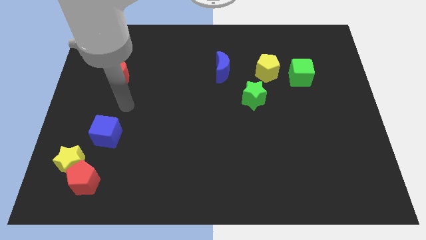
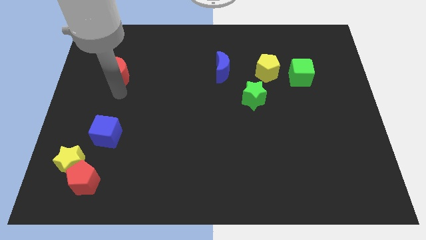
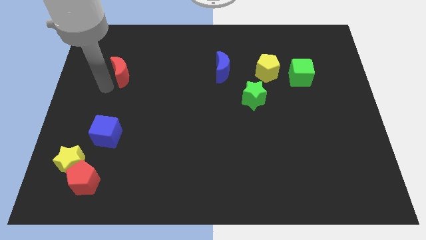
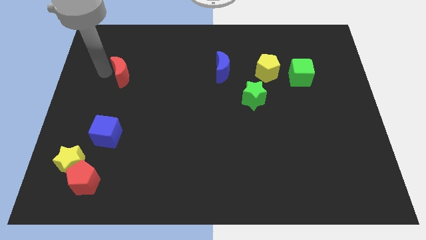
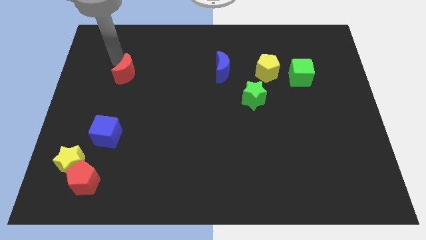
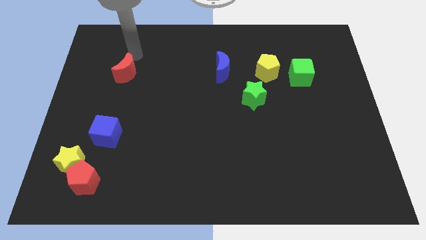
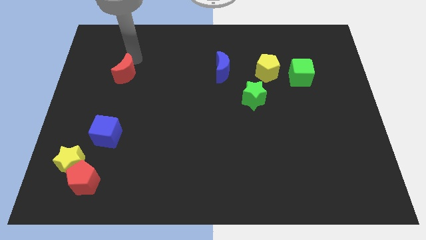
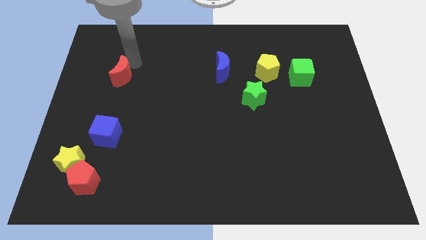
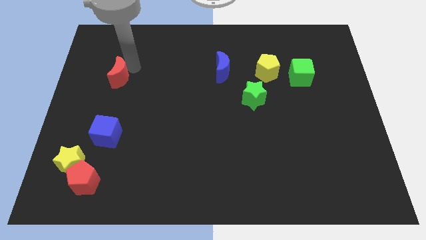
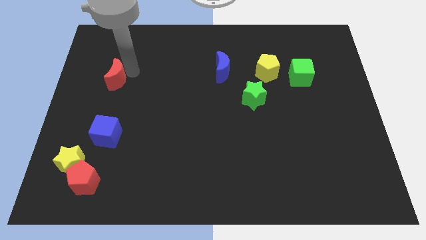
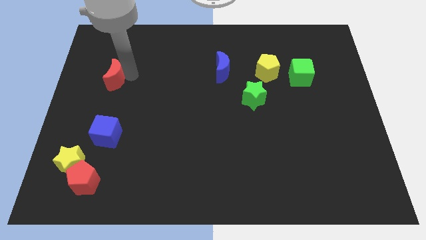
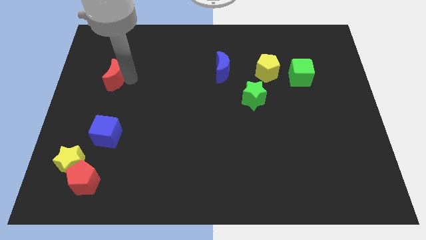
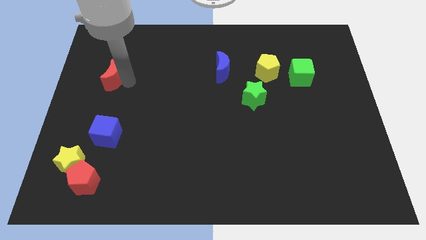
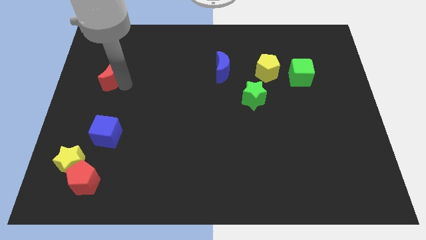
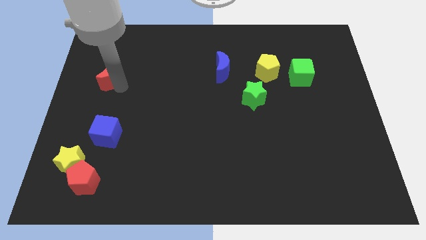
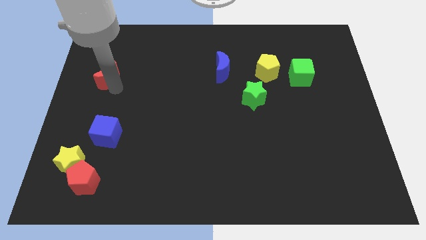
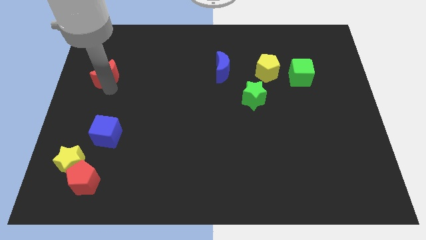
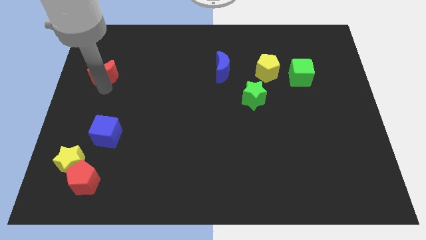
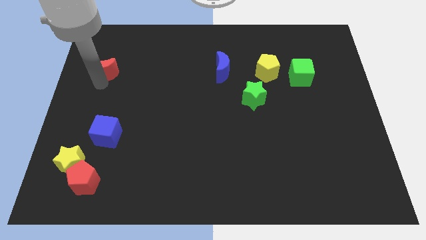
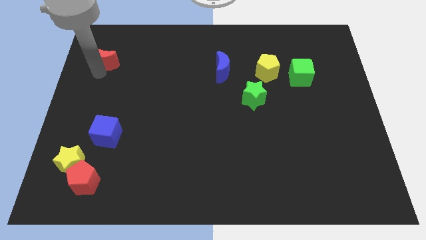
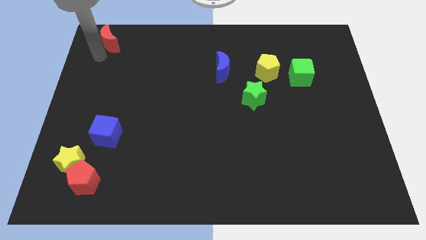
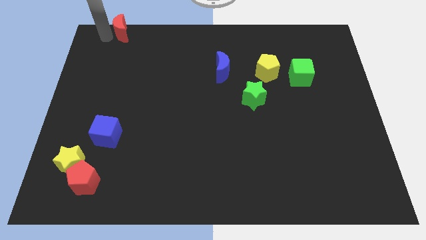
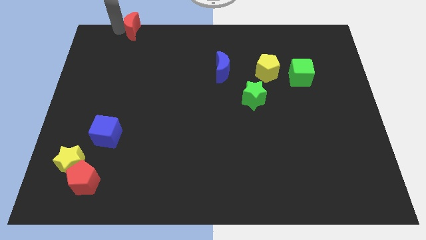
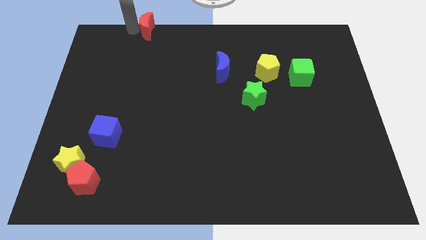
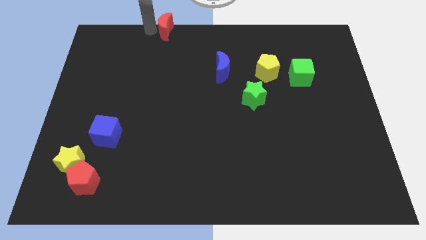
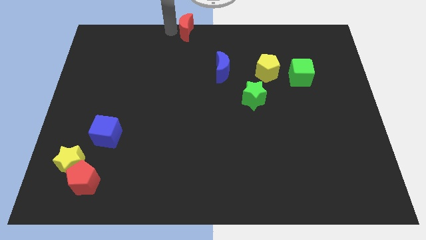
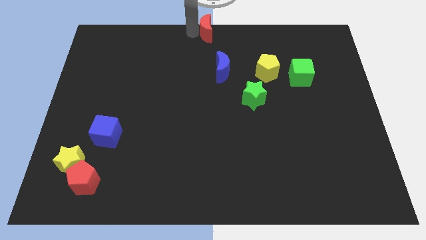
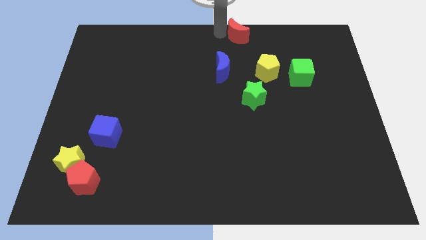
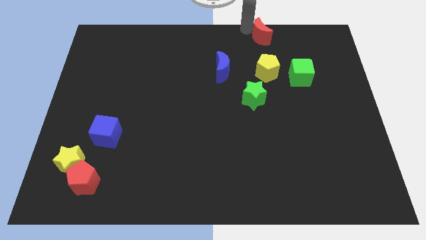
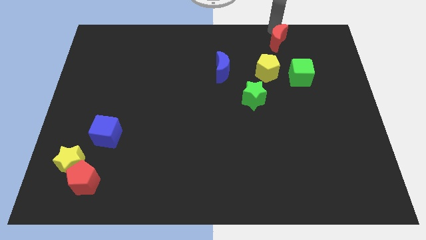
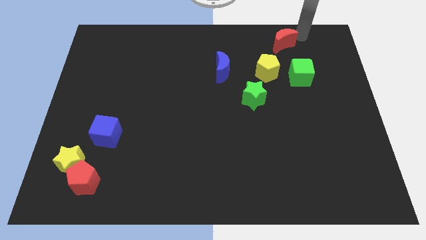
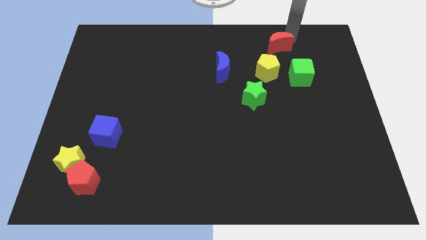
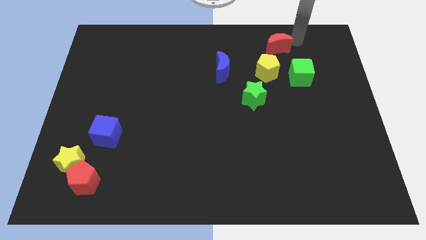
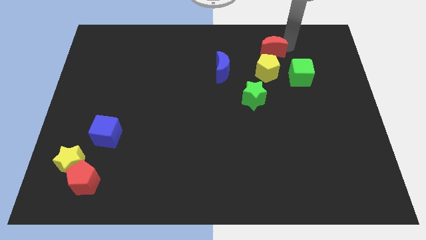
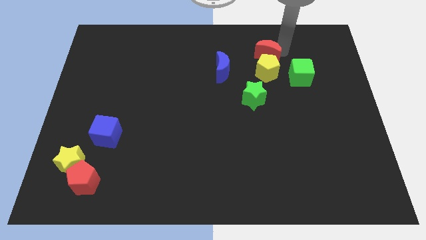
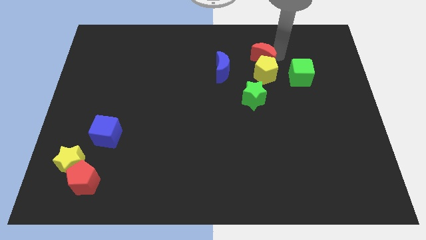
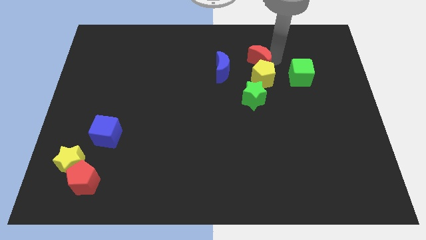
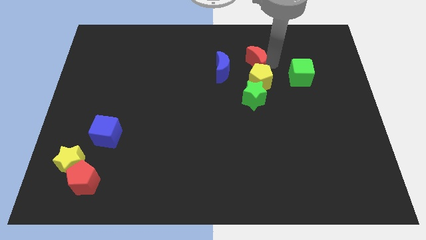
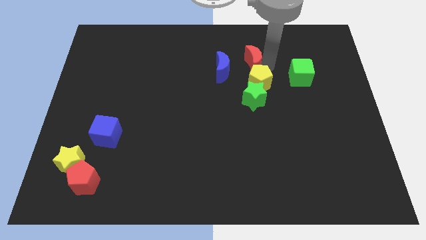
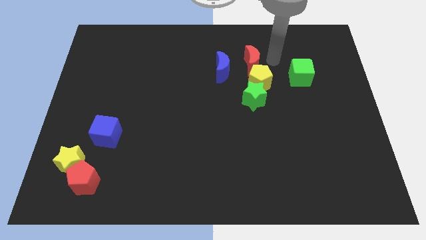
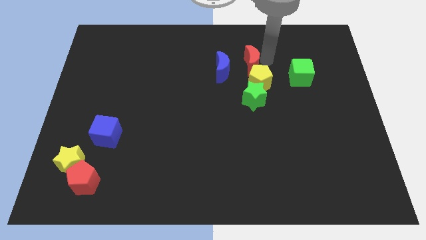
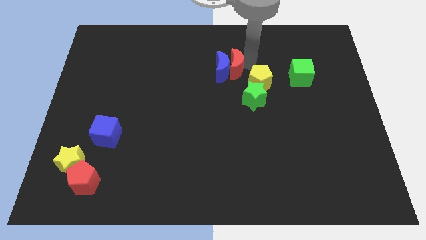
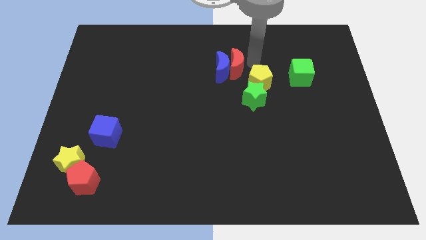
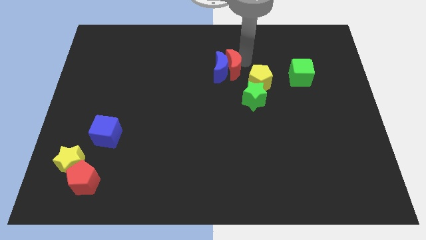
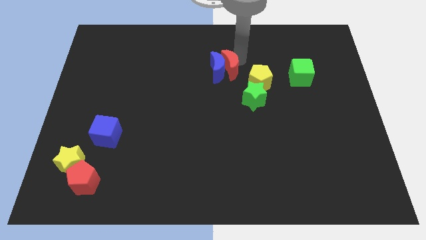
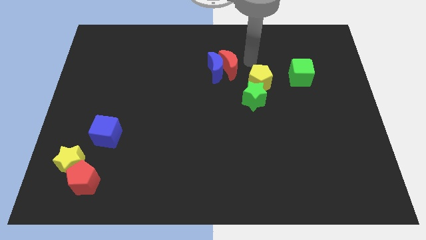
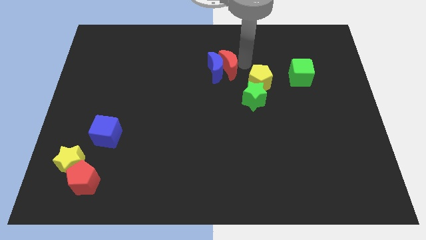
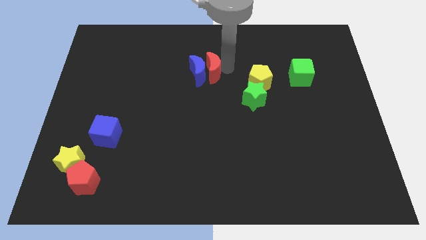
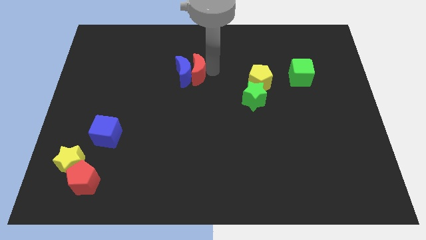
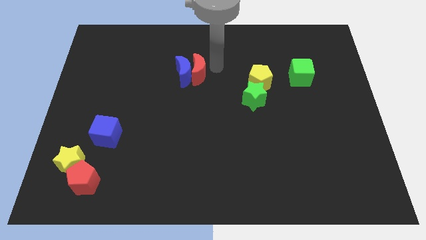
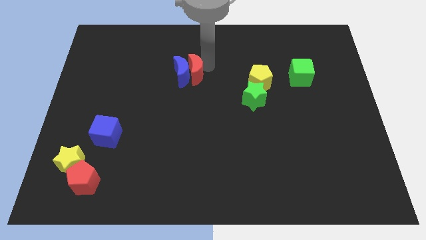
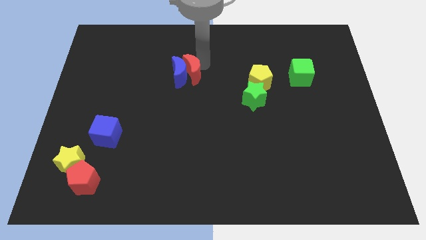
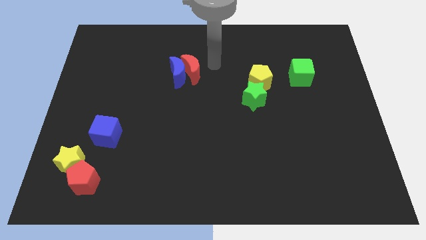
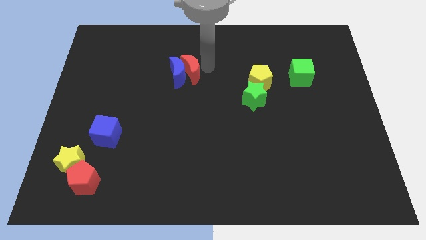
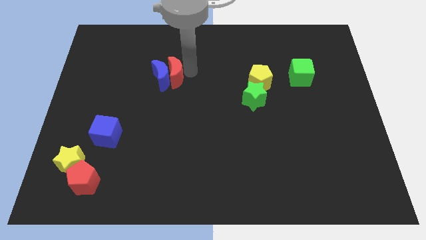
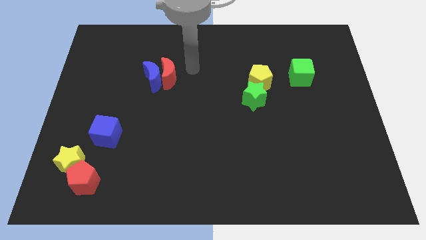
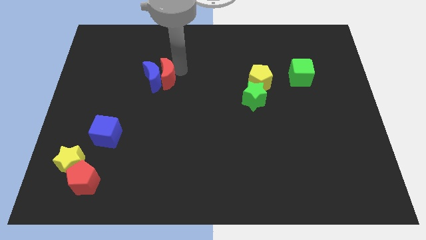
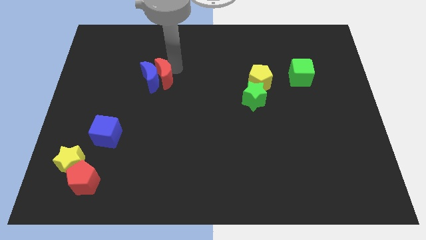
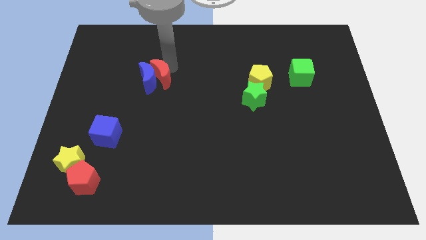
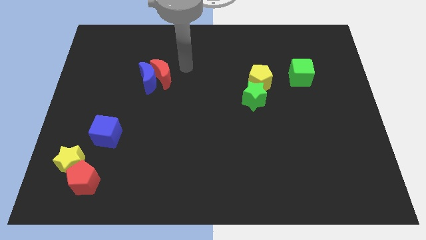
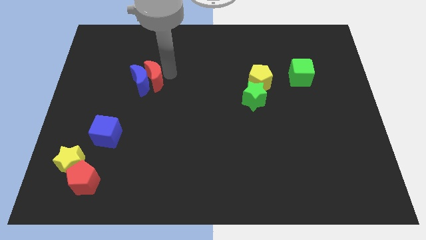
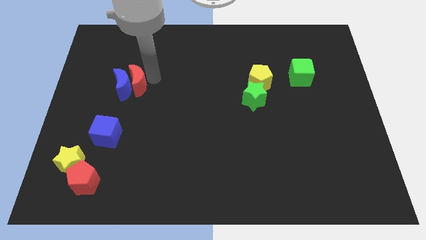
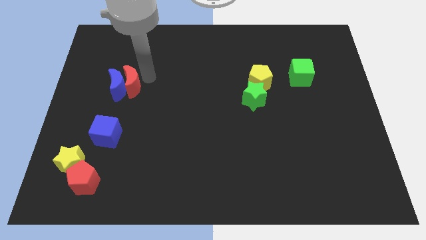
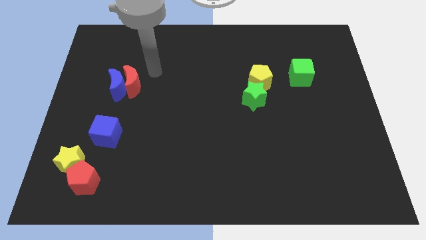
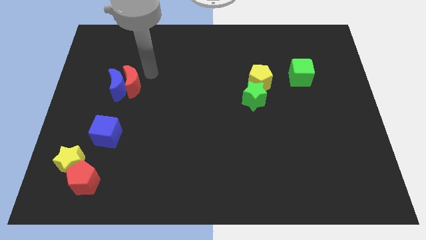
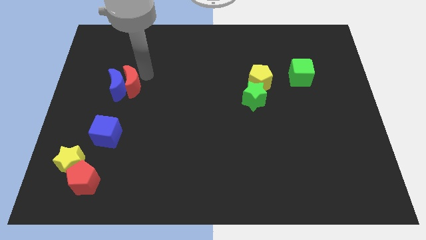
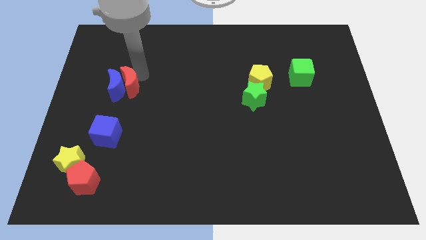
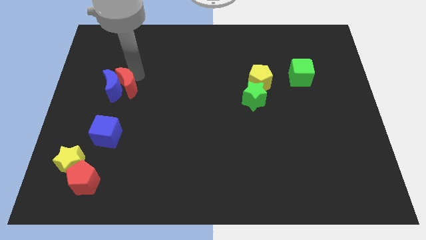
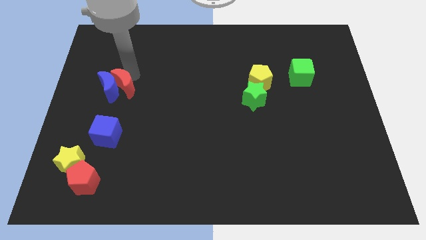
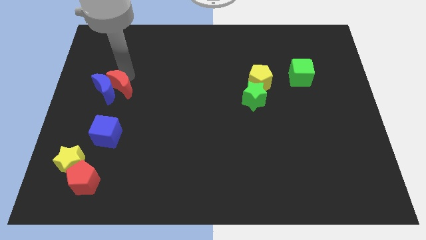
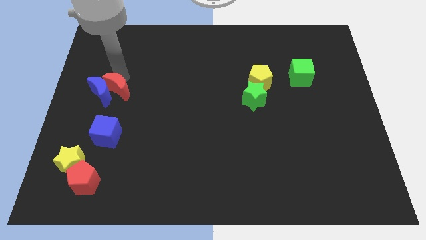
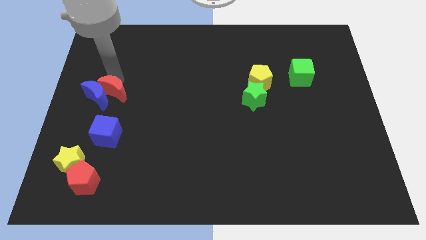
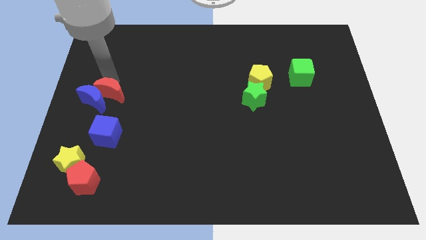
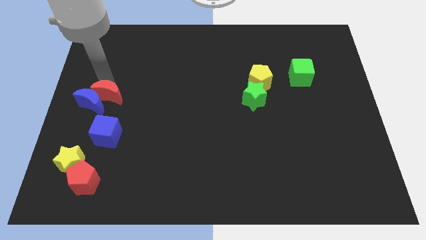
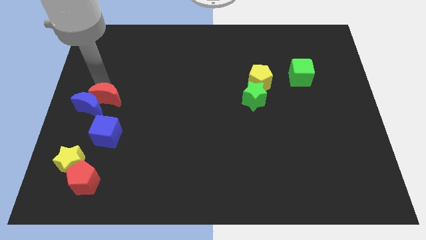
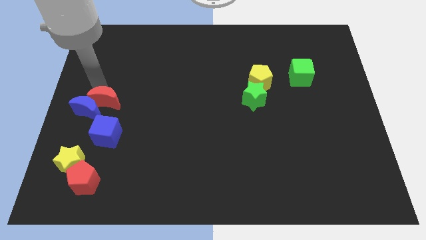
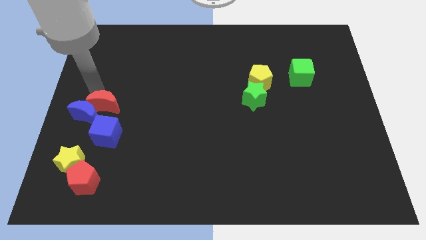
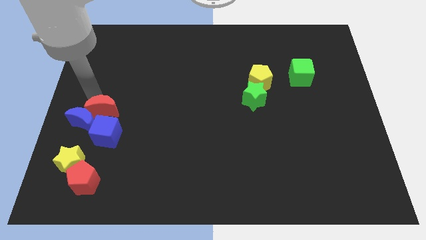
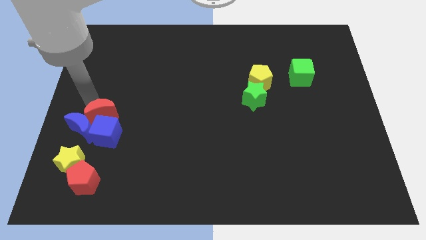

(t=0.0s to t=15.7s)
slide the red moon towards the blue cube
